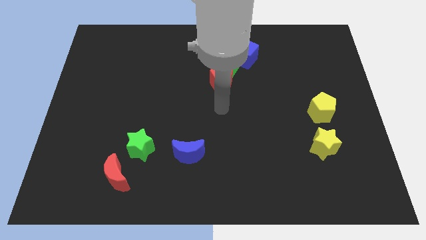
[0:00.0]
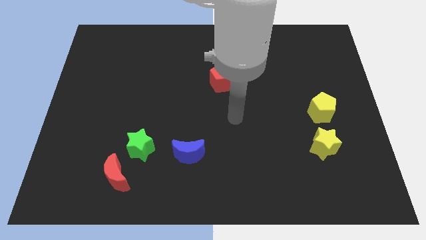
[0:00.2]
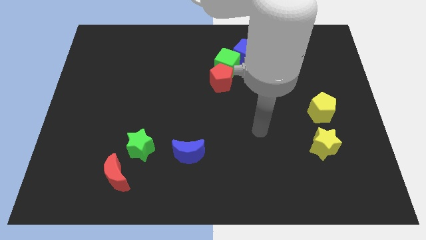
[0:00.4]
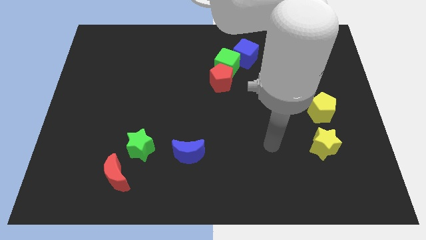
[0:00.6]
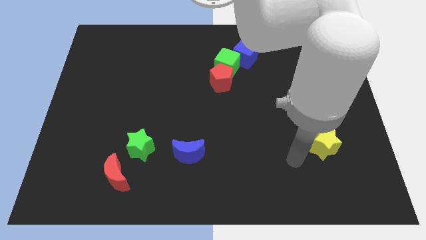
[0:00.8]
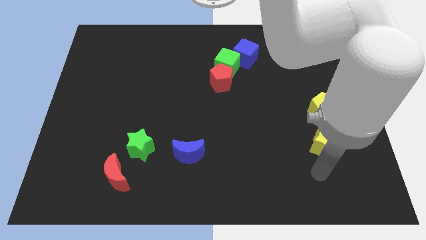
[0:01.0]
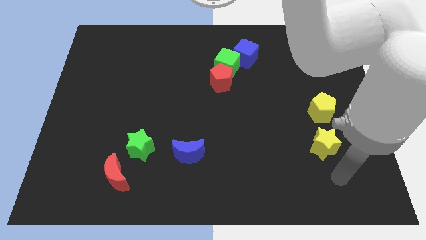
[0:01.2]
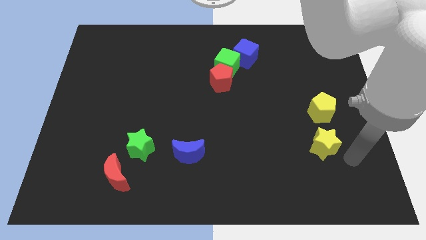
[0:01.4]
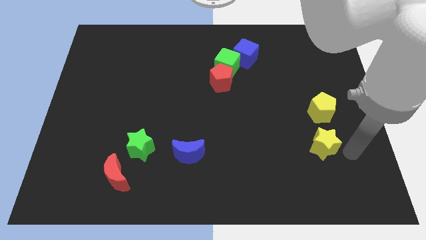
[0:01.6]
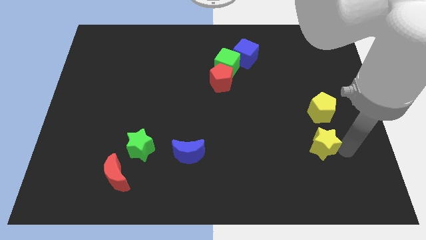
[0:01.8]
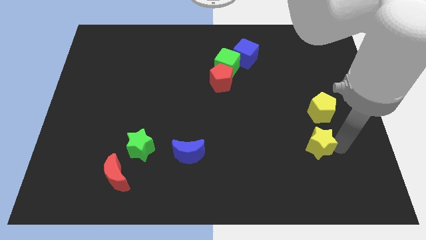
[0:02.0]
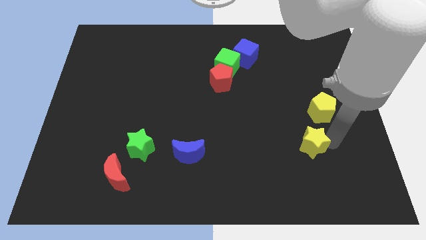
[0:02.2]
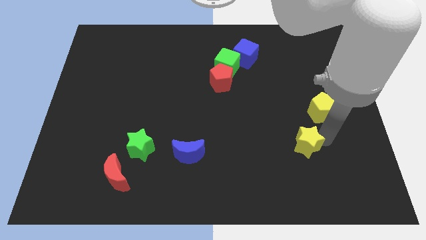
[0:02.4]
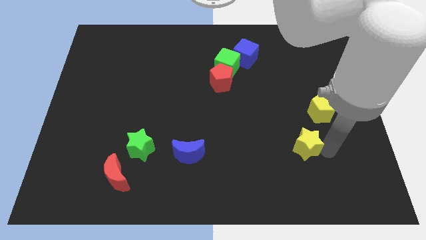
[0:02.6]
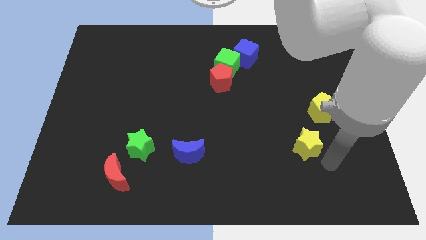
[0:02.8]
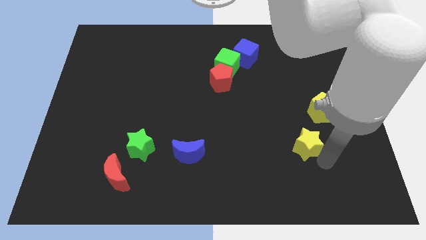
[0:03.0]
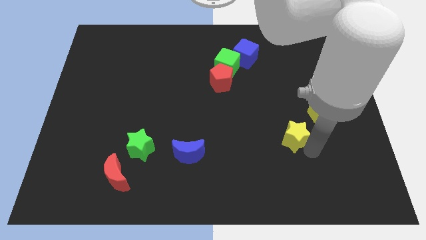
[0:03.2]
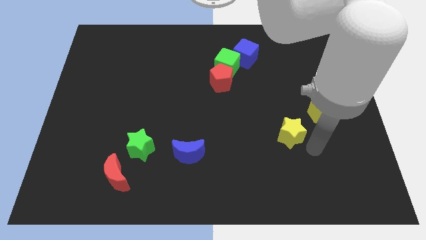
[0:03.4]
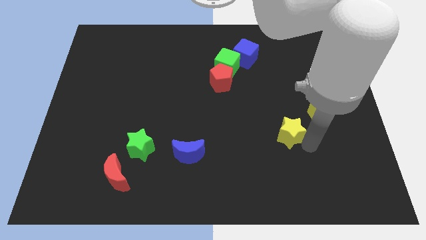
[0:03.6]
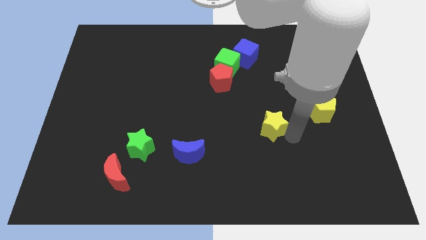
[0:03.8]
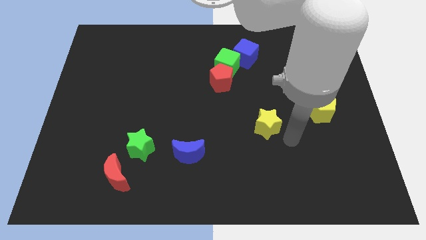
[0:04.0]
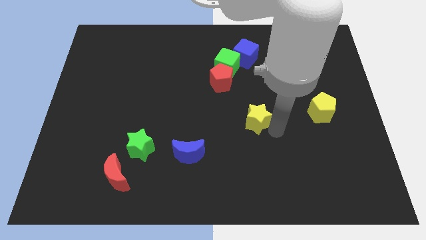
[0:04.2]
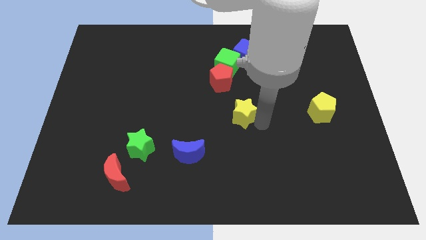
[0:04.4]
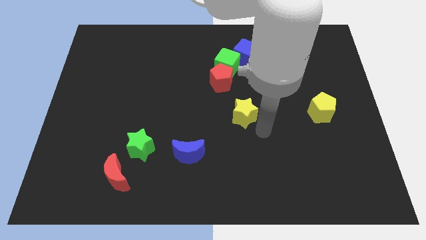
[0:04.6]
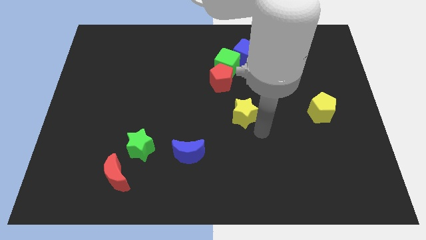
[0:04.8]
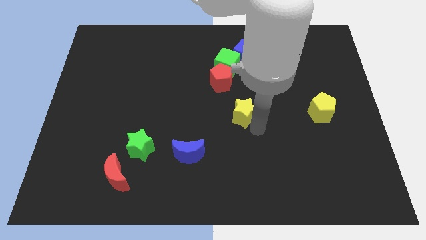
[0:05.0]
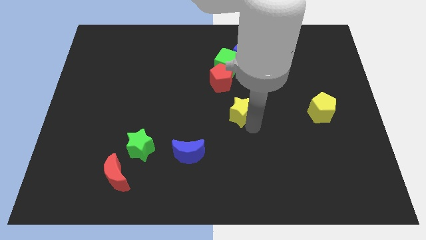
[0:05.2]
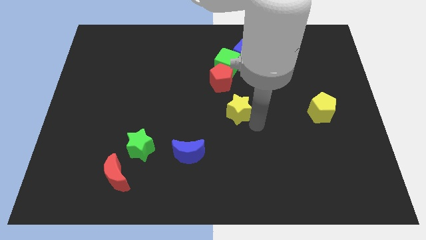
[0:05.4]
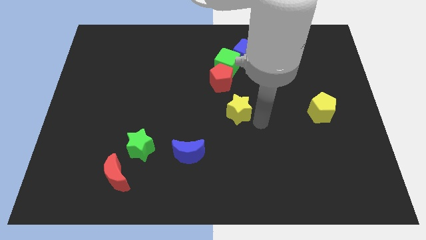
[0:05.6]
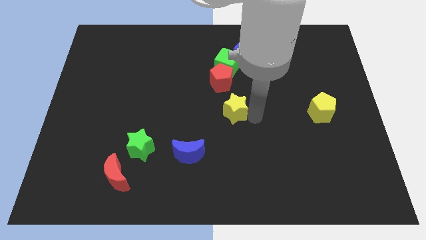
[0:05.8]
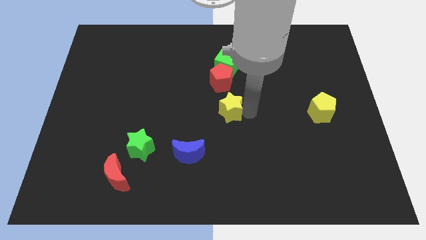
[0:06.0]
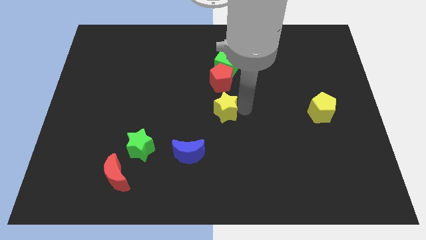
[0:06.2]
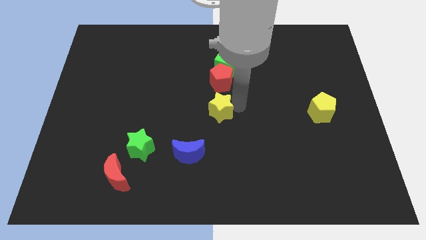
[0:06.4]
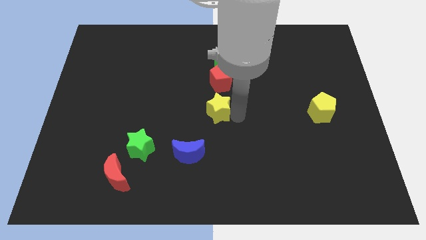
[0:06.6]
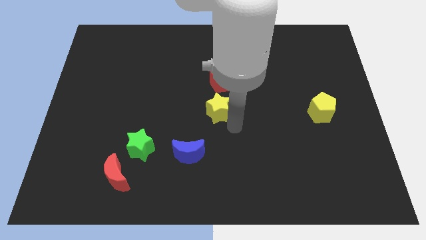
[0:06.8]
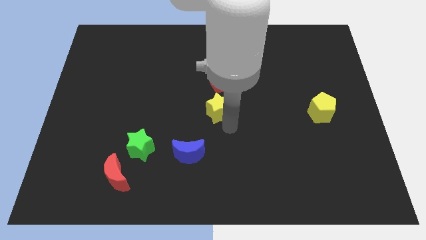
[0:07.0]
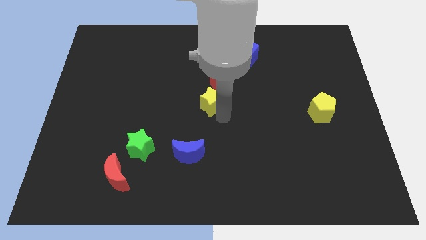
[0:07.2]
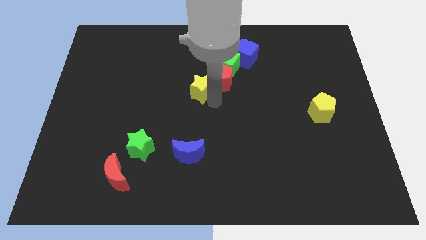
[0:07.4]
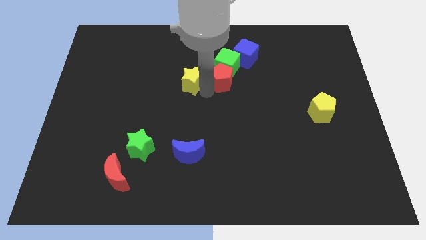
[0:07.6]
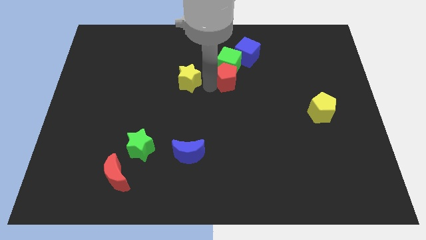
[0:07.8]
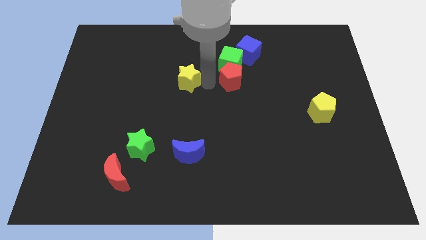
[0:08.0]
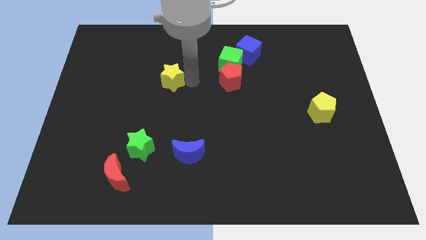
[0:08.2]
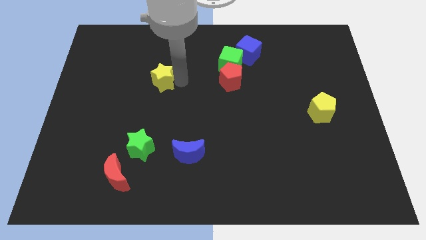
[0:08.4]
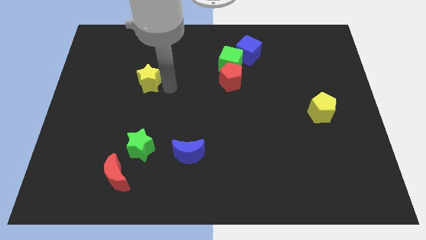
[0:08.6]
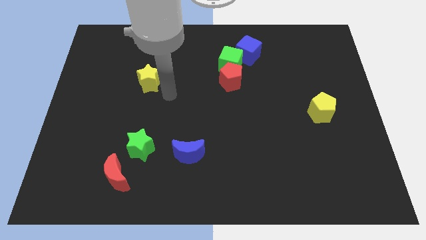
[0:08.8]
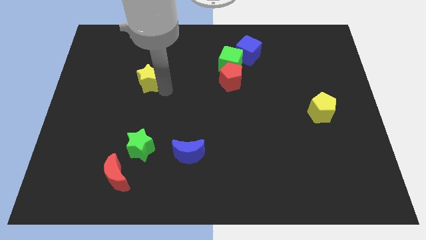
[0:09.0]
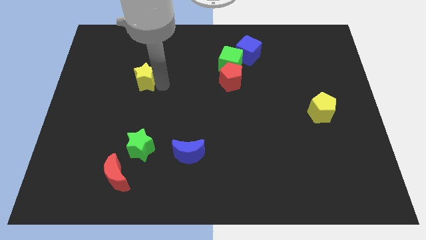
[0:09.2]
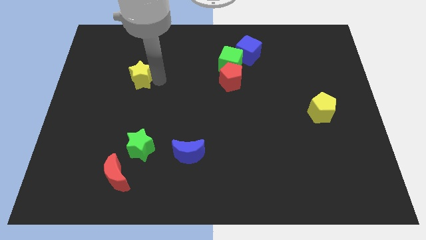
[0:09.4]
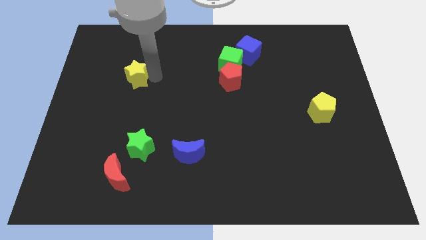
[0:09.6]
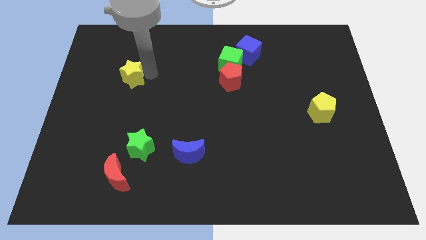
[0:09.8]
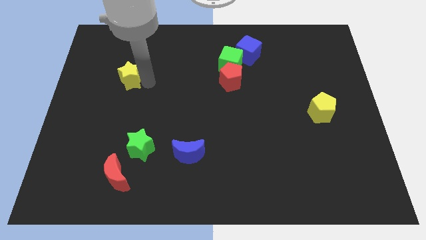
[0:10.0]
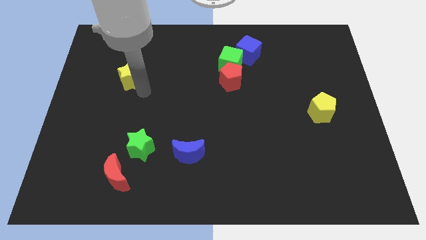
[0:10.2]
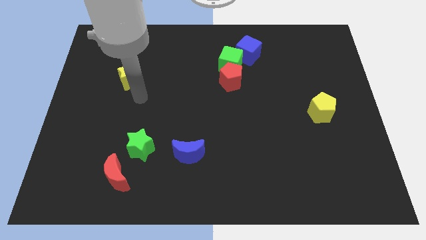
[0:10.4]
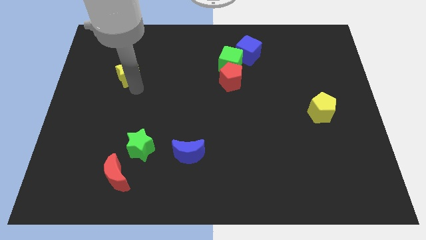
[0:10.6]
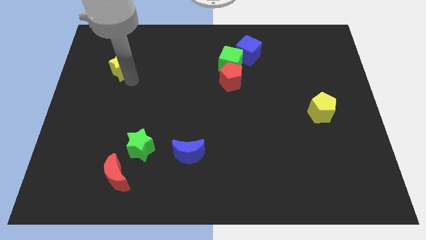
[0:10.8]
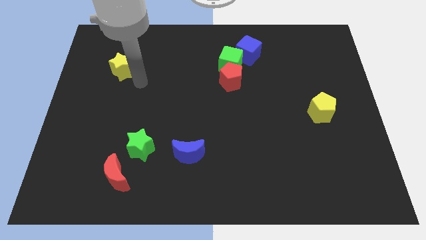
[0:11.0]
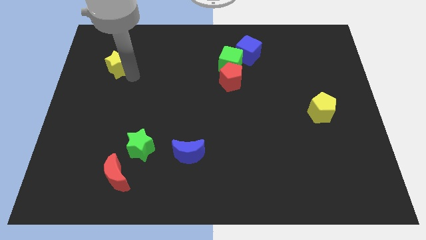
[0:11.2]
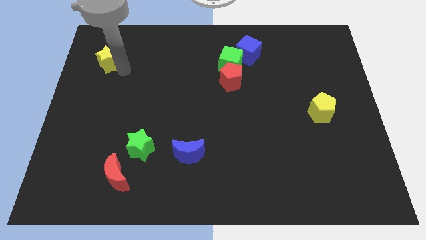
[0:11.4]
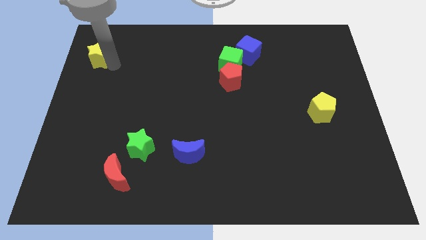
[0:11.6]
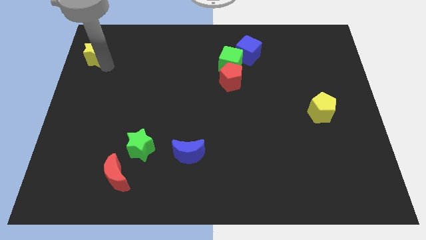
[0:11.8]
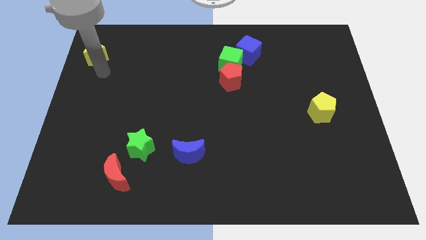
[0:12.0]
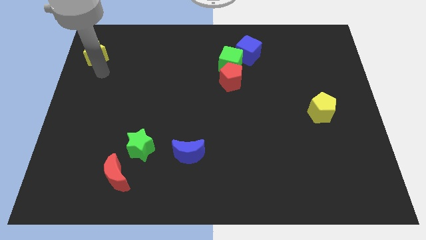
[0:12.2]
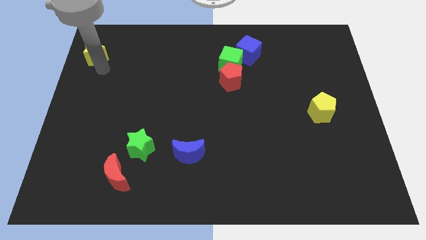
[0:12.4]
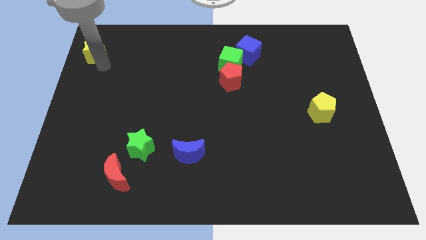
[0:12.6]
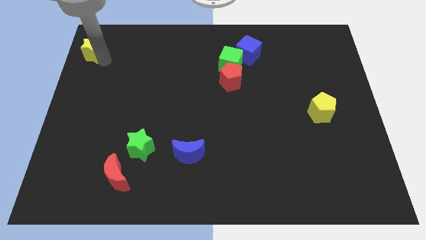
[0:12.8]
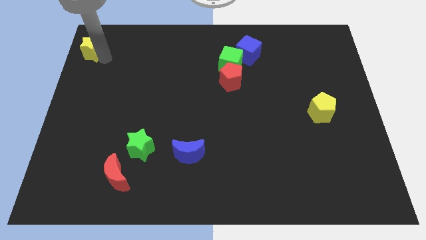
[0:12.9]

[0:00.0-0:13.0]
slide the yellow star to the upper left corner

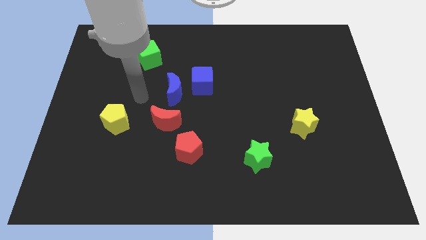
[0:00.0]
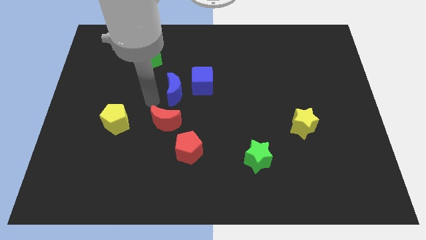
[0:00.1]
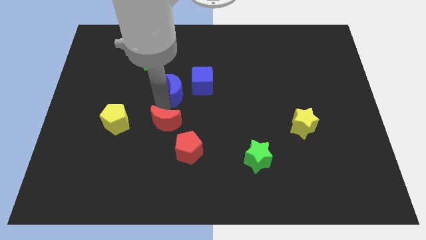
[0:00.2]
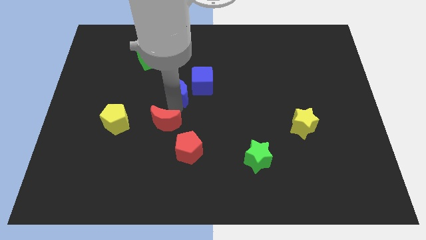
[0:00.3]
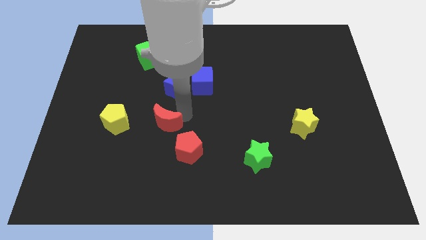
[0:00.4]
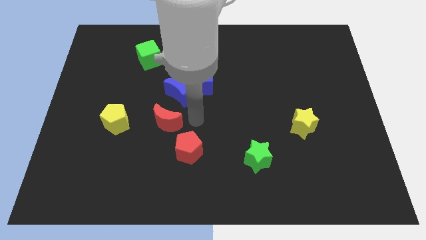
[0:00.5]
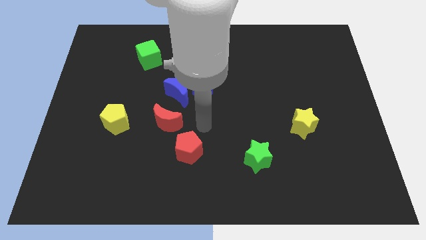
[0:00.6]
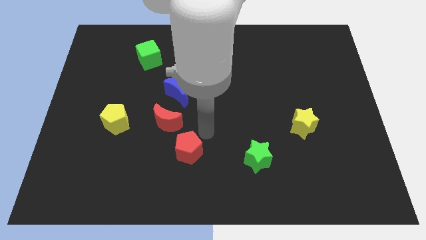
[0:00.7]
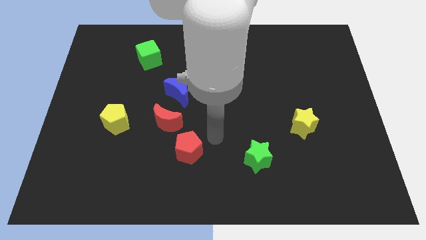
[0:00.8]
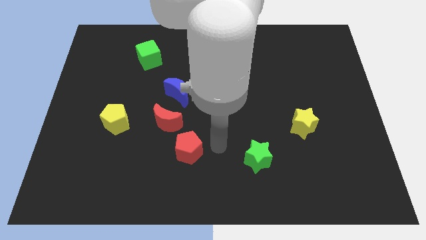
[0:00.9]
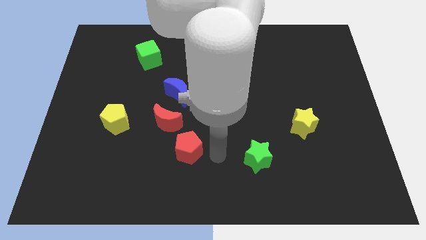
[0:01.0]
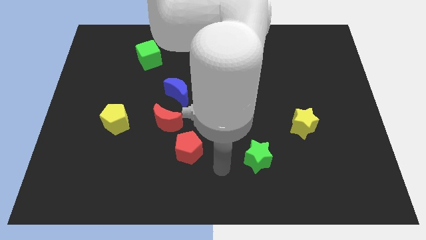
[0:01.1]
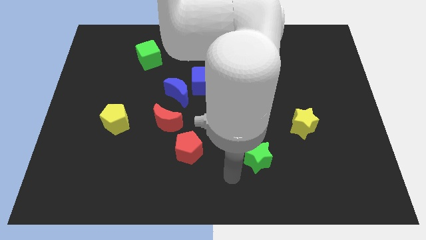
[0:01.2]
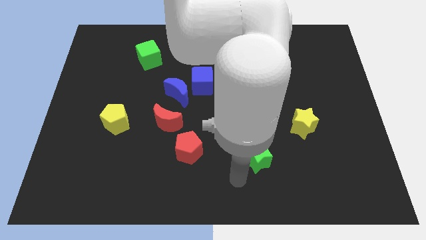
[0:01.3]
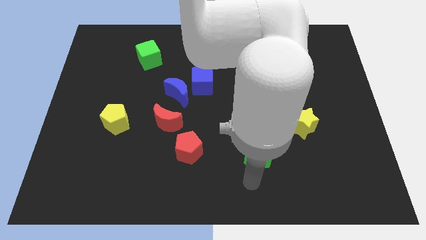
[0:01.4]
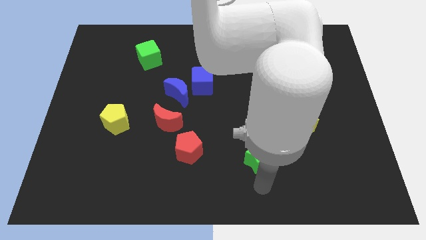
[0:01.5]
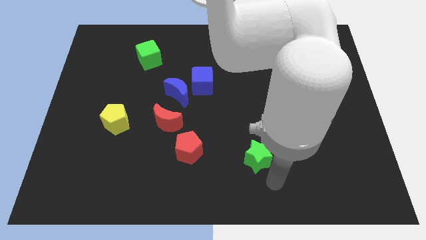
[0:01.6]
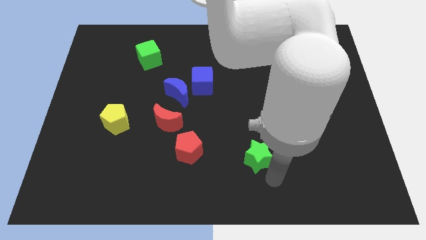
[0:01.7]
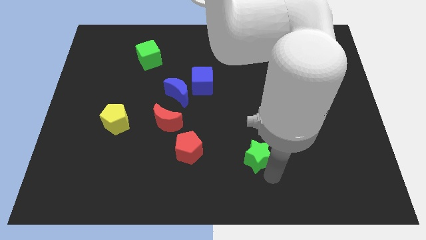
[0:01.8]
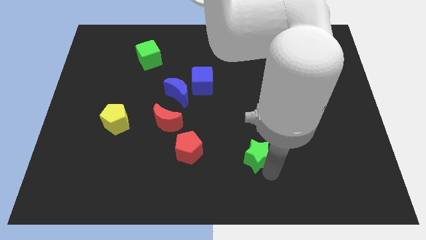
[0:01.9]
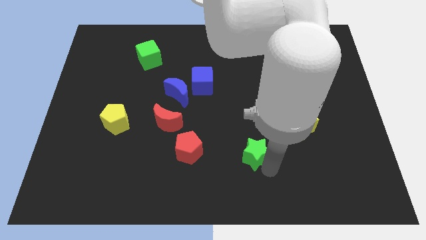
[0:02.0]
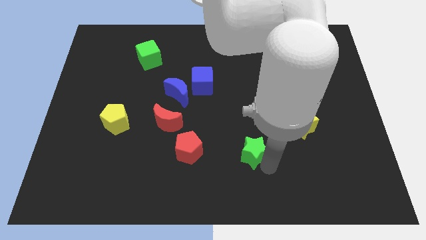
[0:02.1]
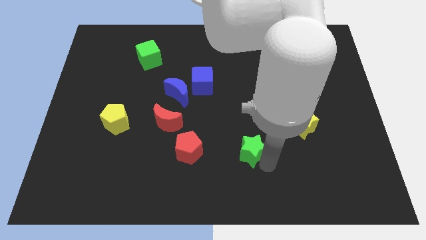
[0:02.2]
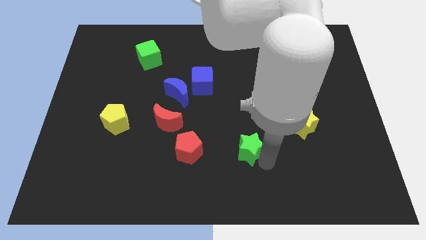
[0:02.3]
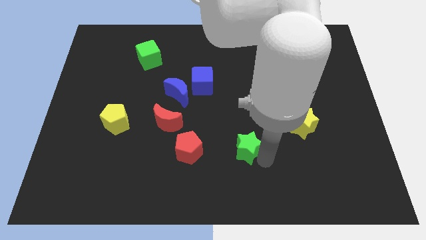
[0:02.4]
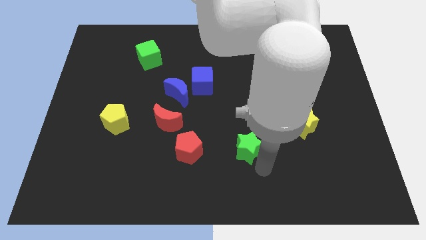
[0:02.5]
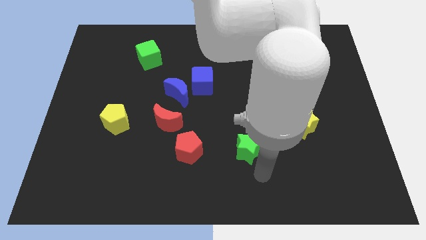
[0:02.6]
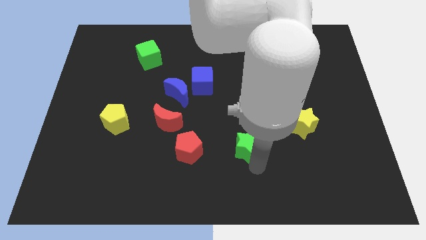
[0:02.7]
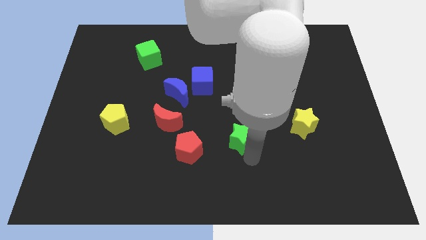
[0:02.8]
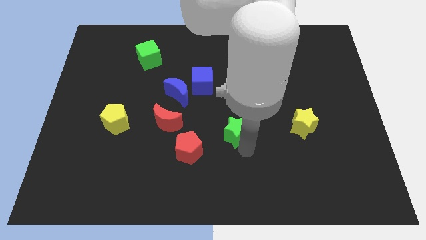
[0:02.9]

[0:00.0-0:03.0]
push the green star to the middle
